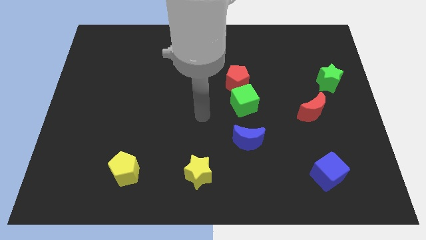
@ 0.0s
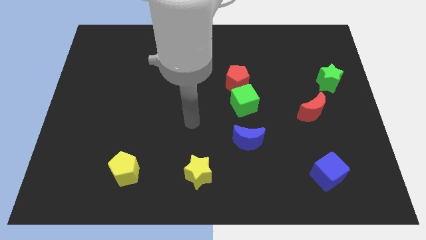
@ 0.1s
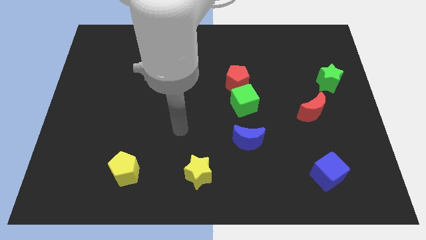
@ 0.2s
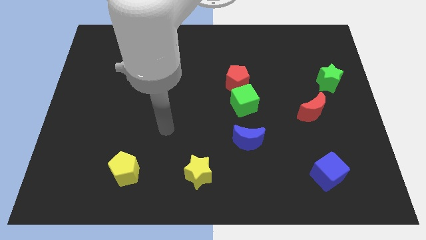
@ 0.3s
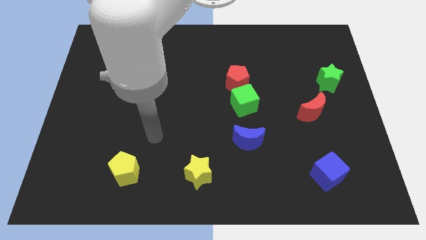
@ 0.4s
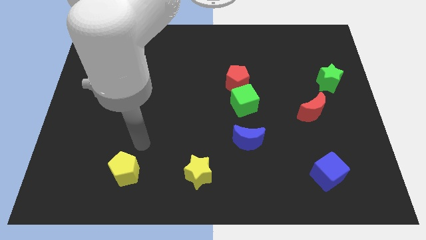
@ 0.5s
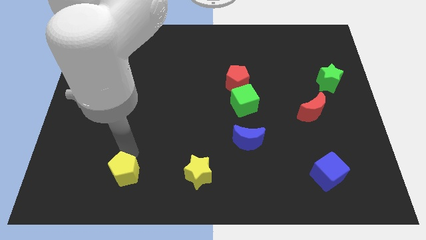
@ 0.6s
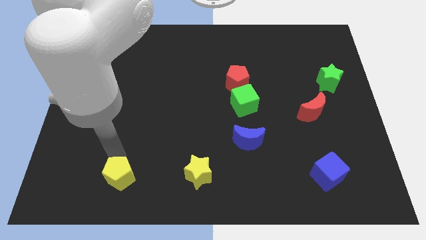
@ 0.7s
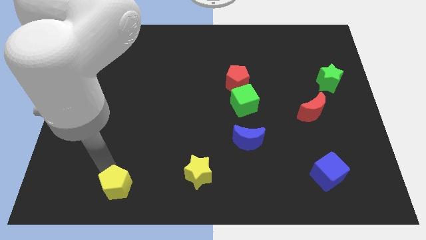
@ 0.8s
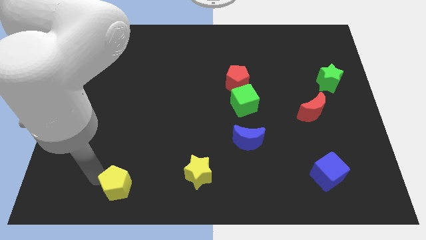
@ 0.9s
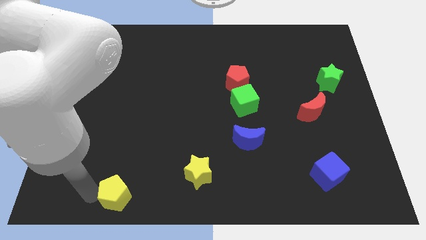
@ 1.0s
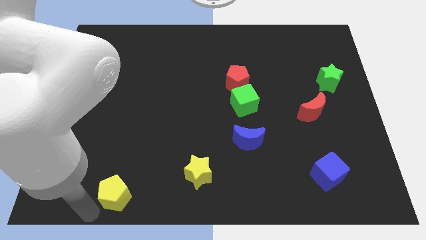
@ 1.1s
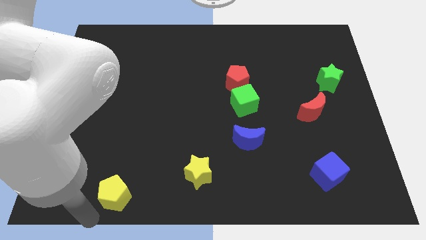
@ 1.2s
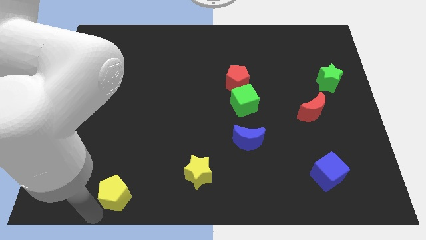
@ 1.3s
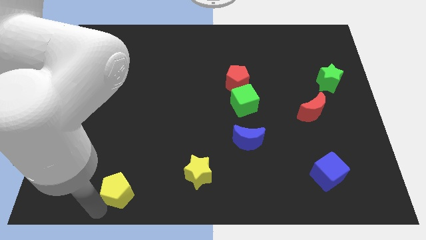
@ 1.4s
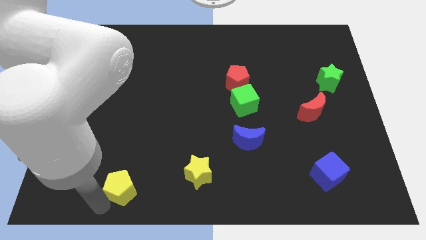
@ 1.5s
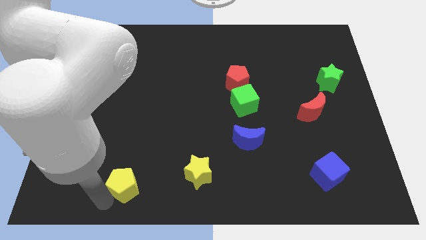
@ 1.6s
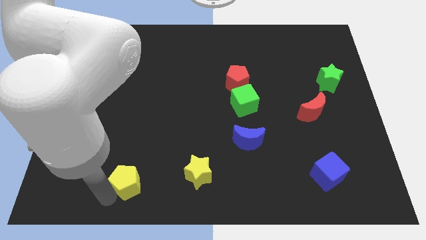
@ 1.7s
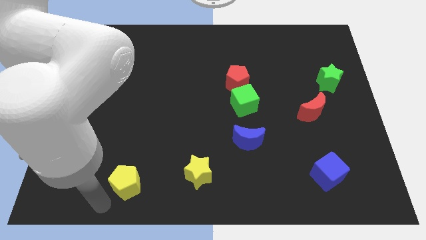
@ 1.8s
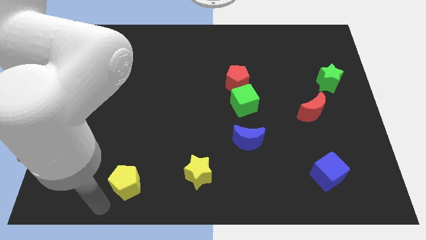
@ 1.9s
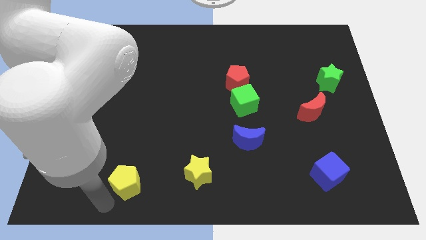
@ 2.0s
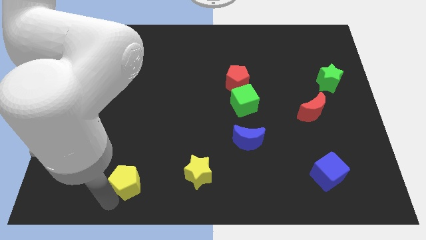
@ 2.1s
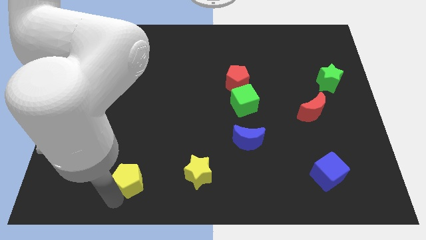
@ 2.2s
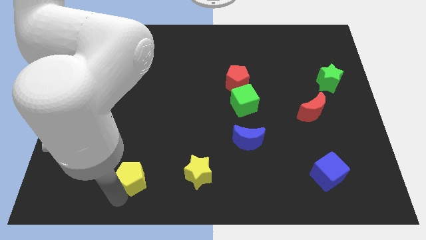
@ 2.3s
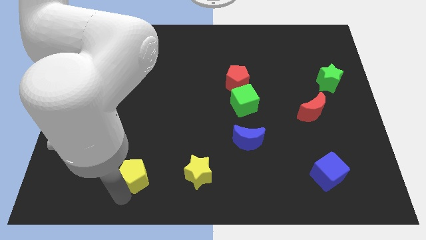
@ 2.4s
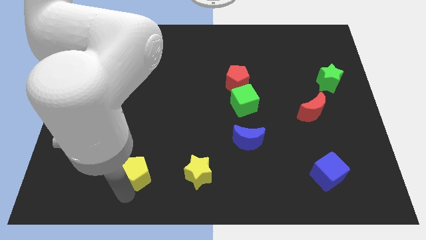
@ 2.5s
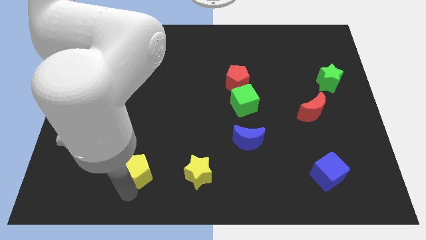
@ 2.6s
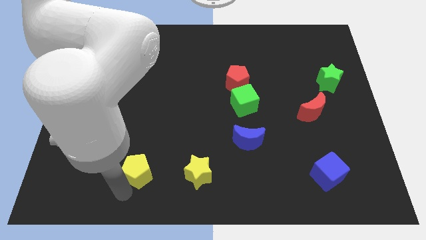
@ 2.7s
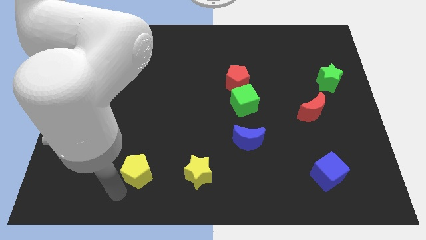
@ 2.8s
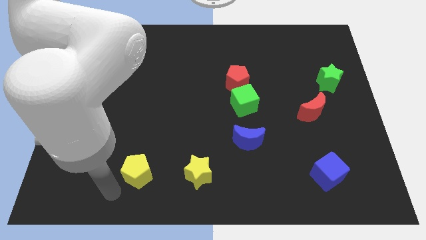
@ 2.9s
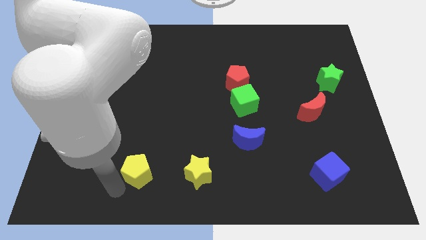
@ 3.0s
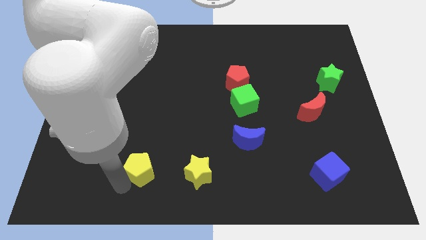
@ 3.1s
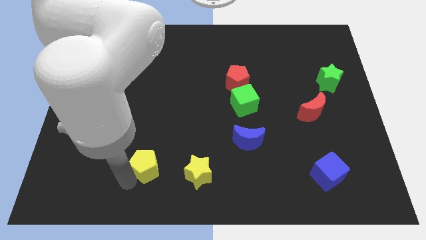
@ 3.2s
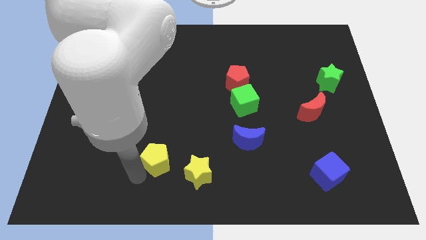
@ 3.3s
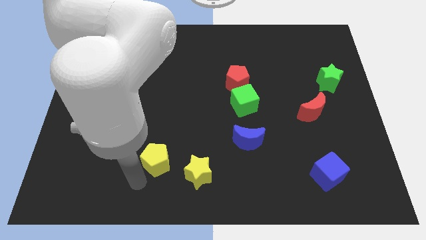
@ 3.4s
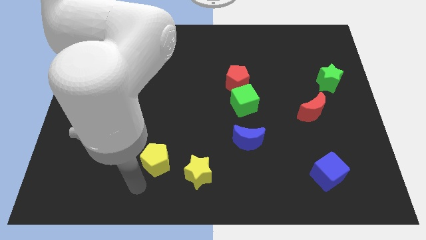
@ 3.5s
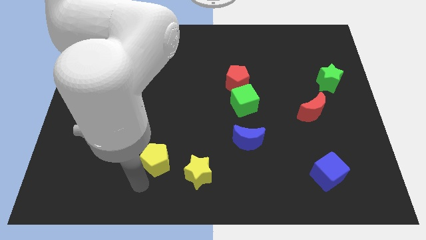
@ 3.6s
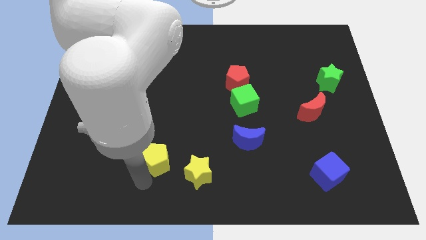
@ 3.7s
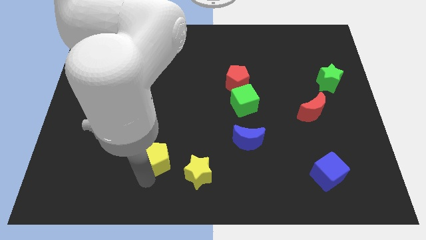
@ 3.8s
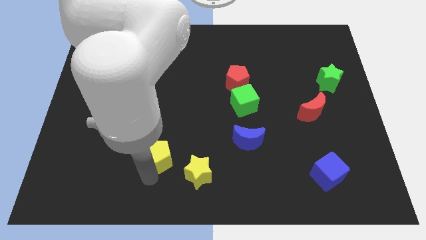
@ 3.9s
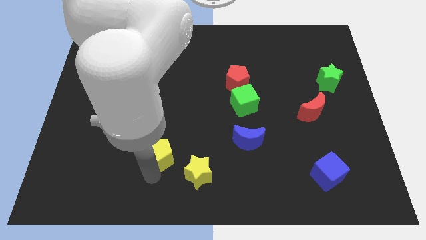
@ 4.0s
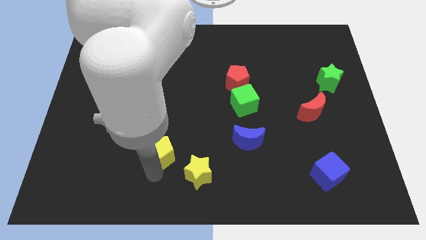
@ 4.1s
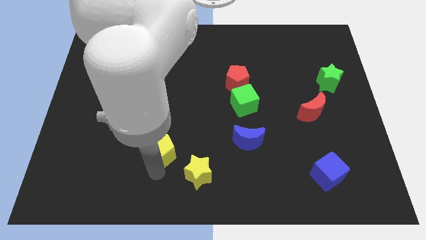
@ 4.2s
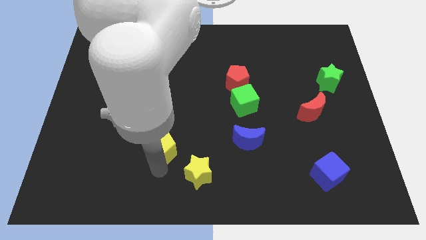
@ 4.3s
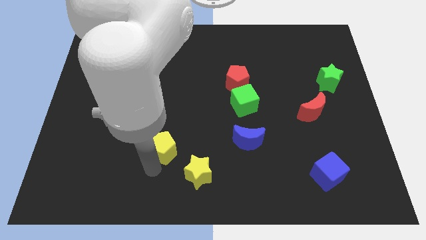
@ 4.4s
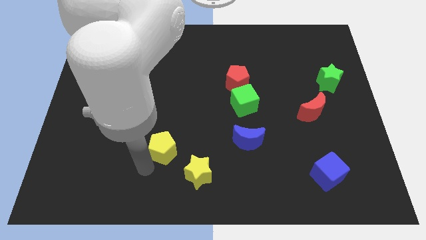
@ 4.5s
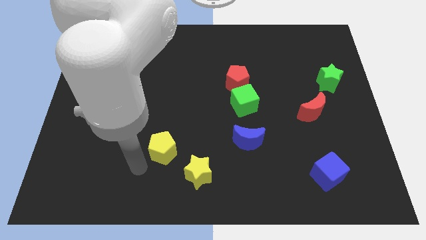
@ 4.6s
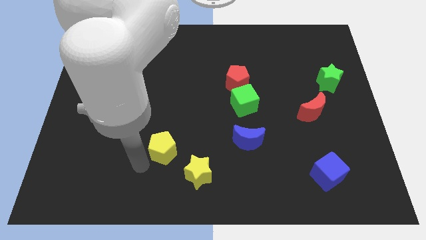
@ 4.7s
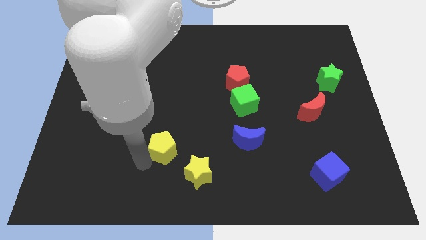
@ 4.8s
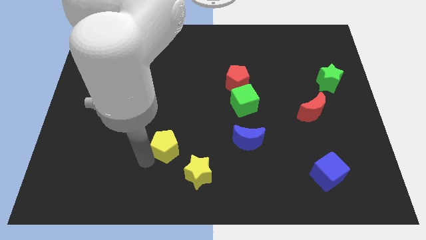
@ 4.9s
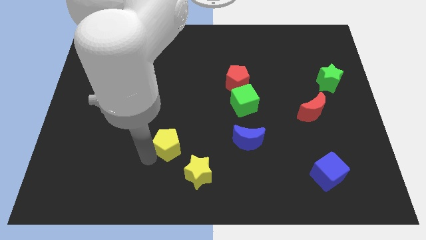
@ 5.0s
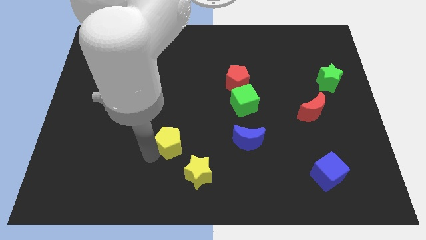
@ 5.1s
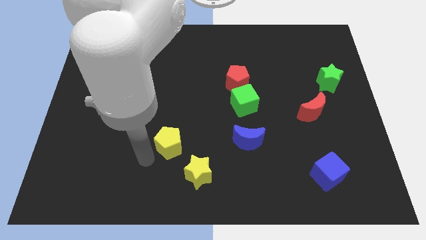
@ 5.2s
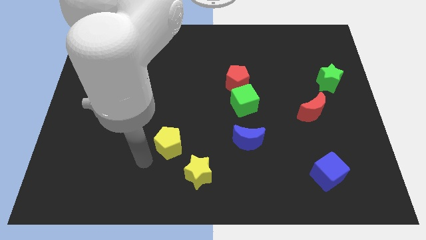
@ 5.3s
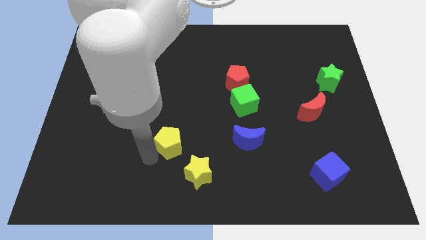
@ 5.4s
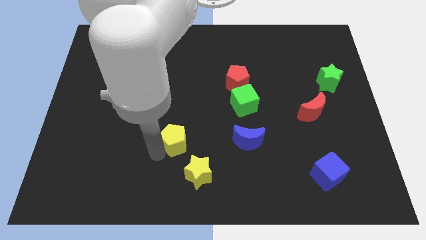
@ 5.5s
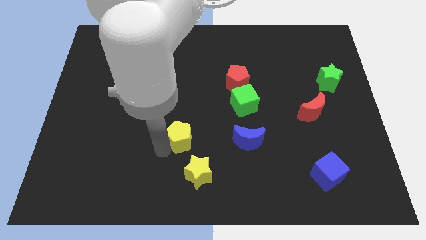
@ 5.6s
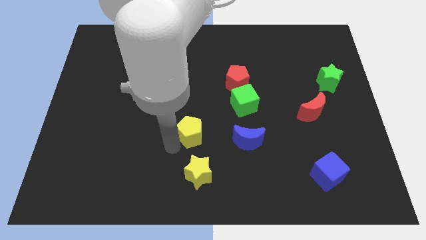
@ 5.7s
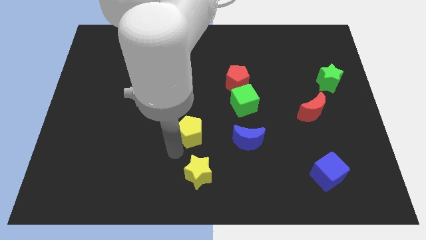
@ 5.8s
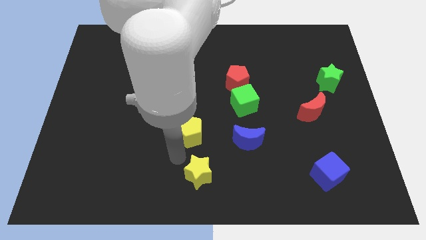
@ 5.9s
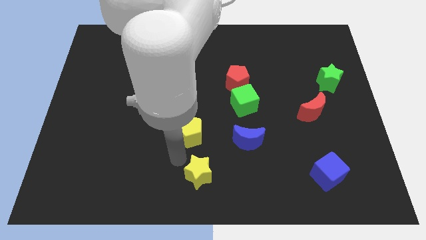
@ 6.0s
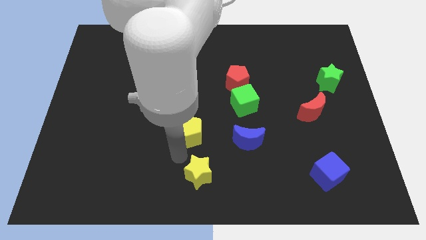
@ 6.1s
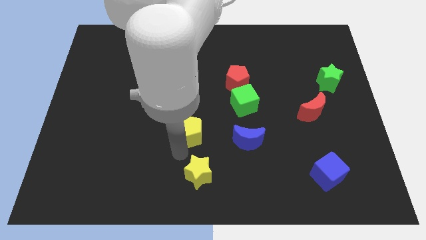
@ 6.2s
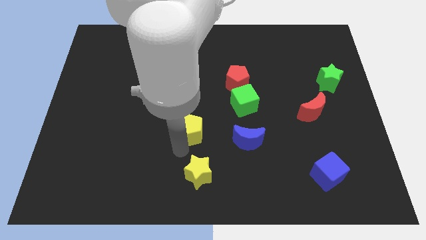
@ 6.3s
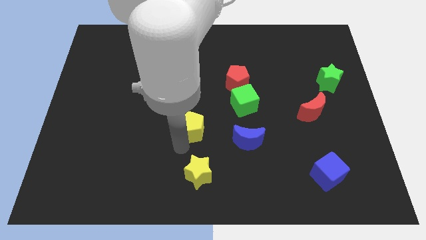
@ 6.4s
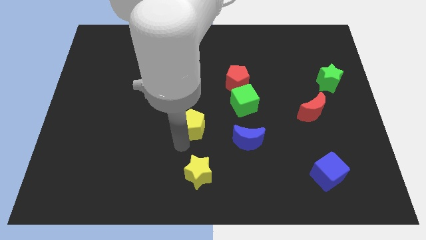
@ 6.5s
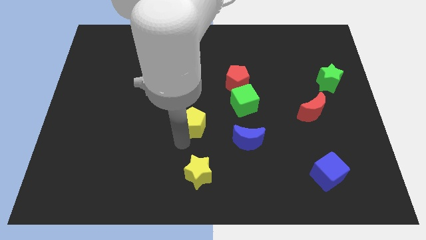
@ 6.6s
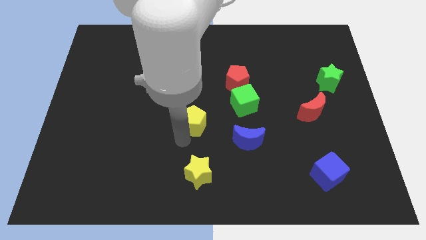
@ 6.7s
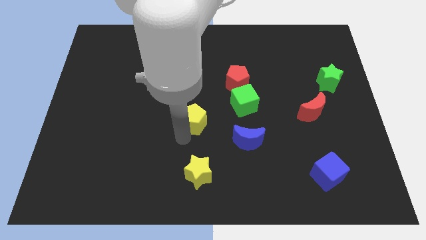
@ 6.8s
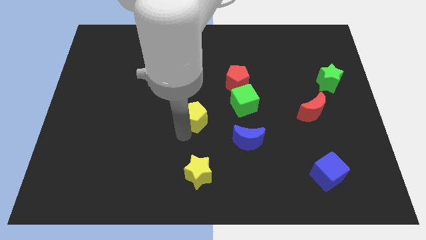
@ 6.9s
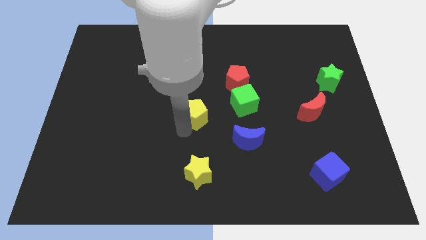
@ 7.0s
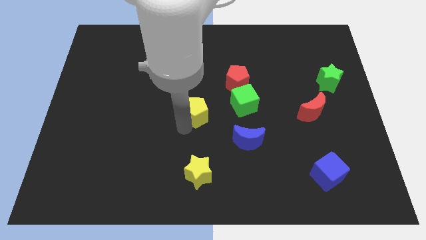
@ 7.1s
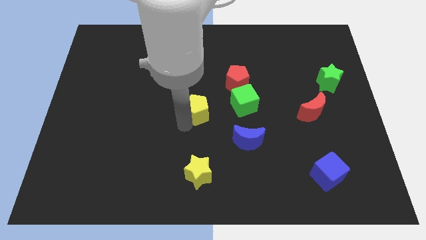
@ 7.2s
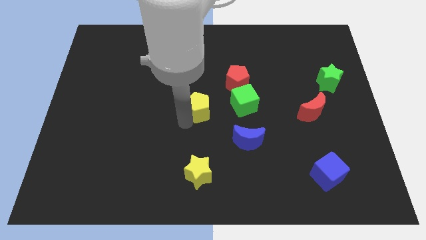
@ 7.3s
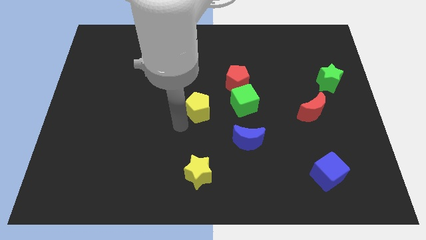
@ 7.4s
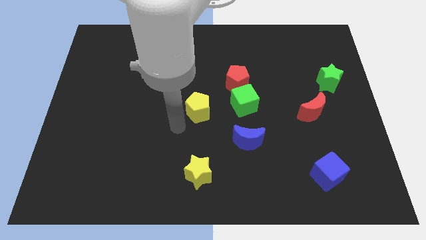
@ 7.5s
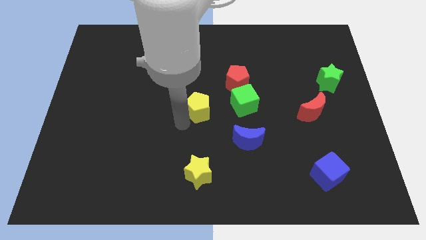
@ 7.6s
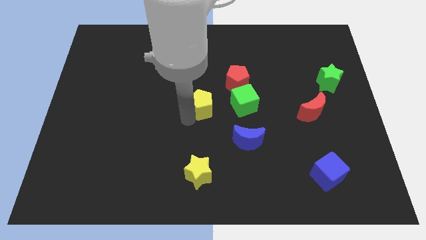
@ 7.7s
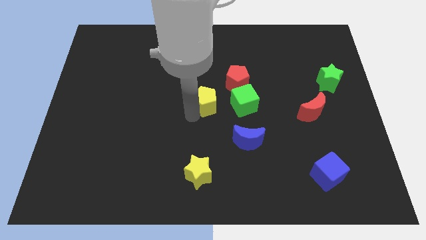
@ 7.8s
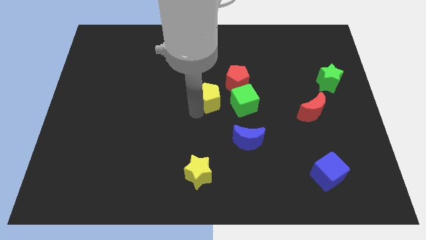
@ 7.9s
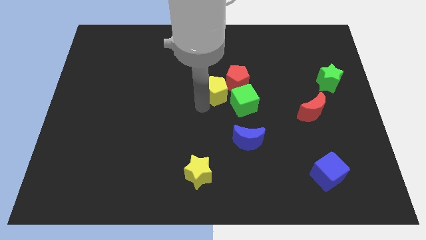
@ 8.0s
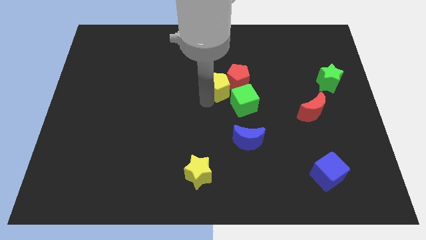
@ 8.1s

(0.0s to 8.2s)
put the yellow pentagon close to the red pentagon
